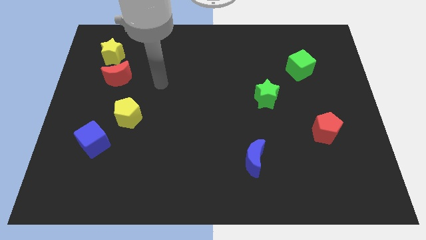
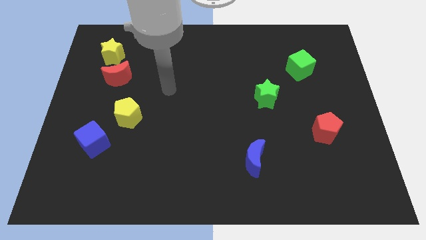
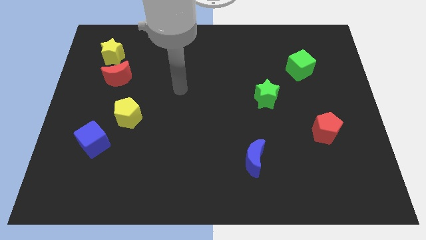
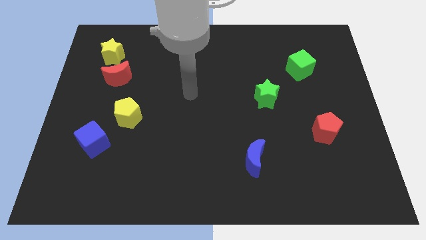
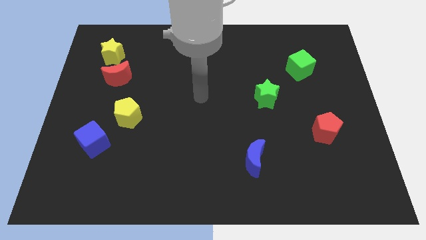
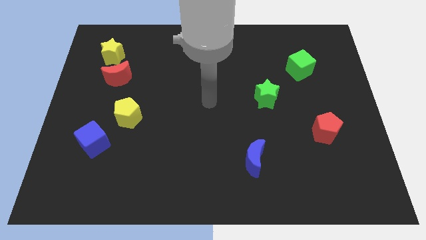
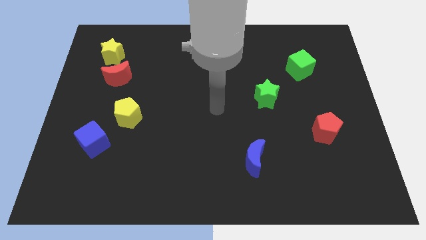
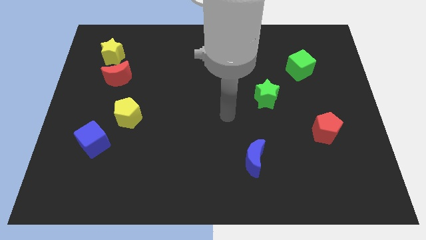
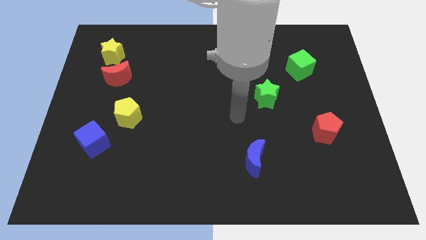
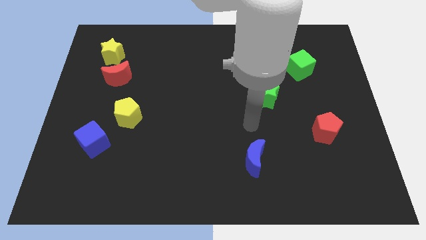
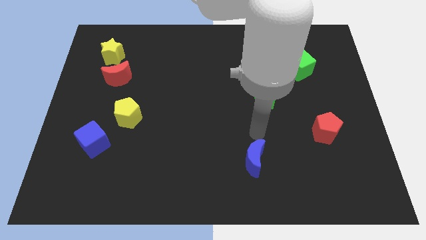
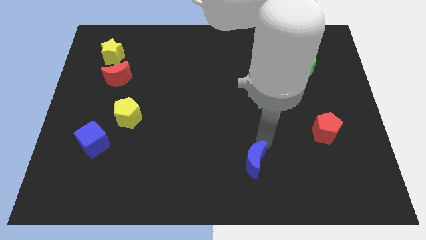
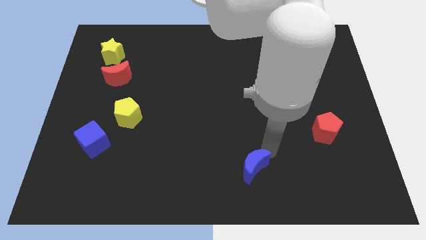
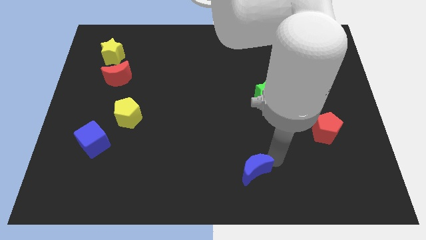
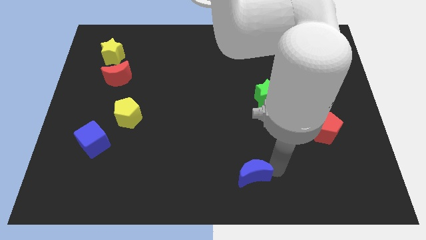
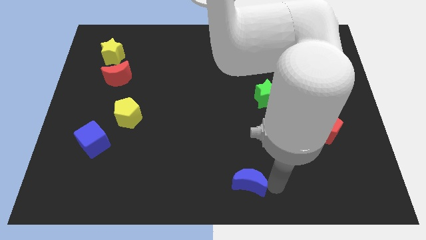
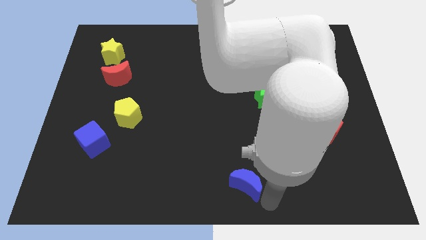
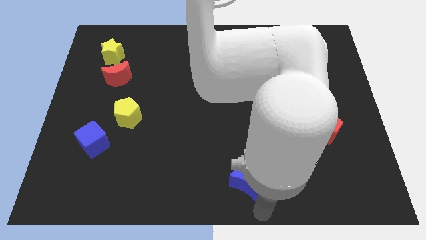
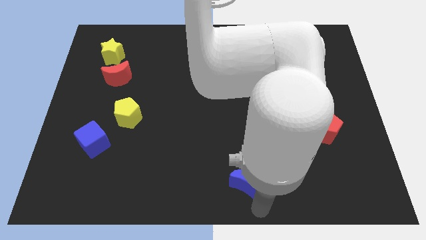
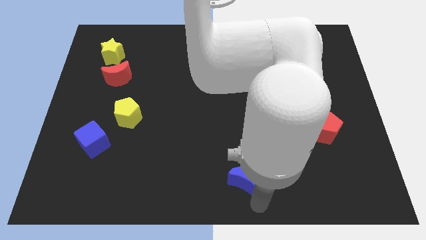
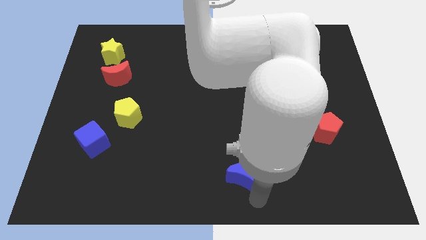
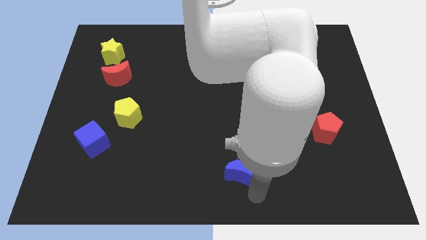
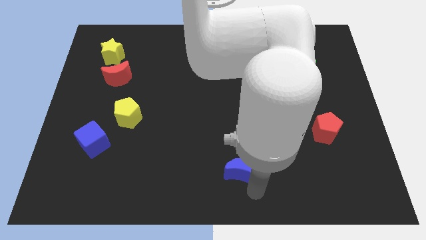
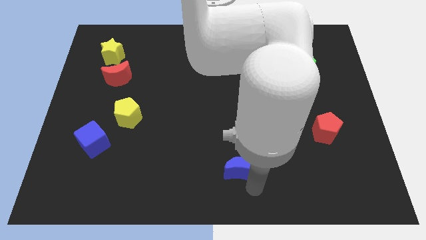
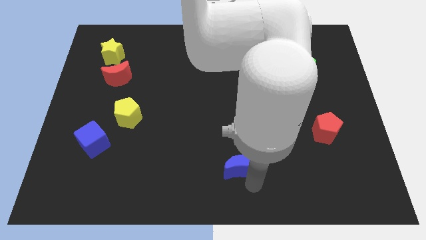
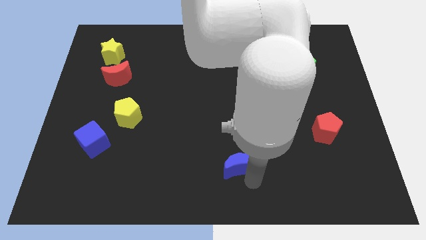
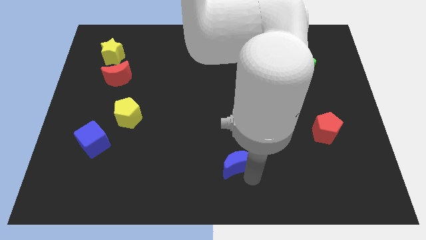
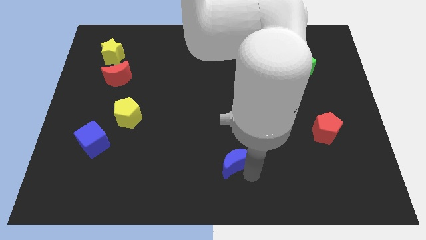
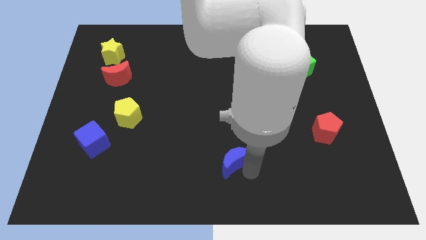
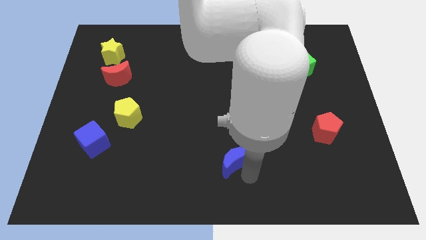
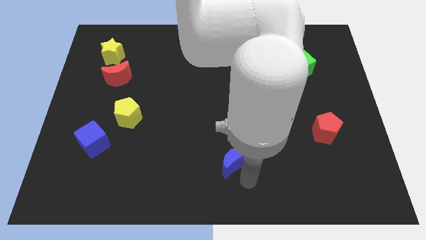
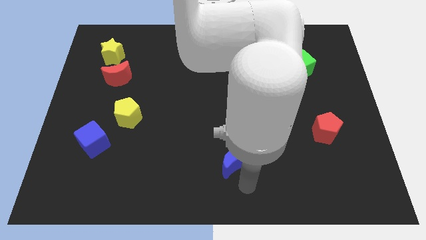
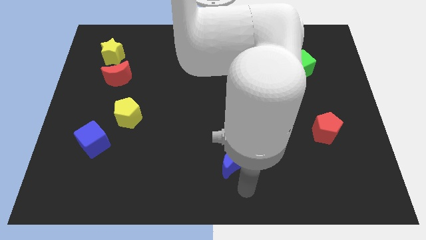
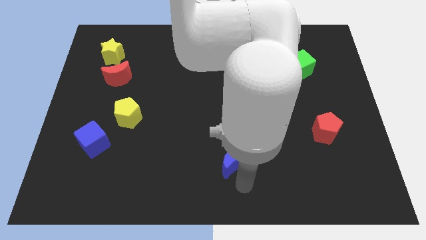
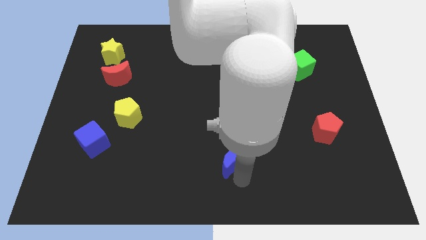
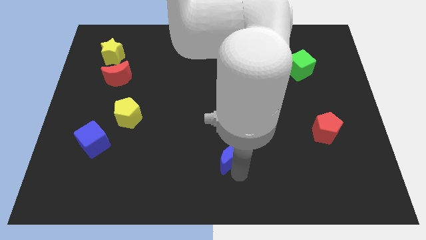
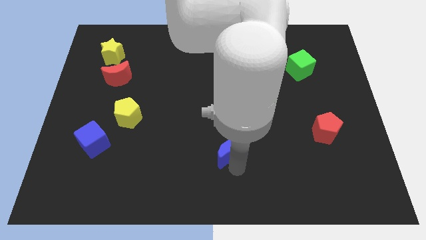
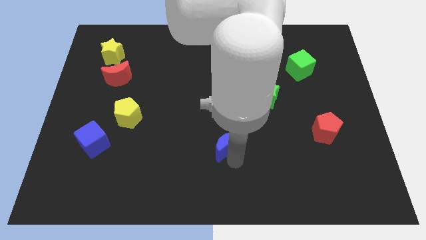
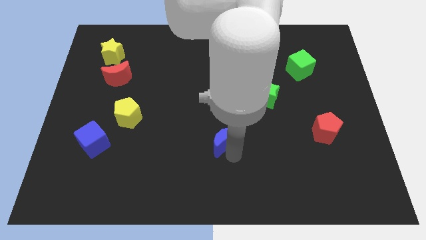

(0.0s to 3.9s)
slightly slide the blue moon up and left diagonally

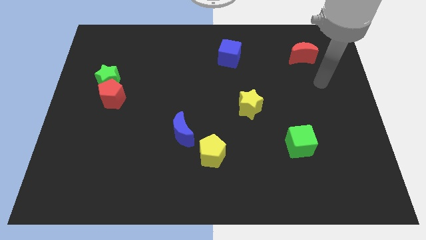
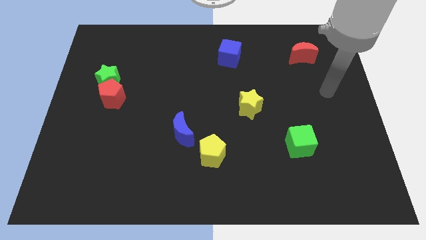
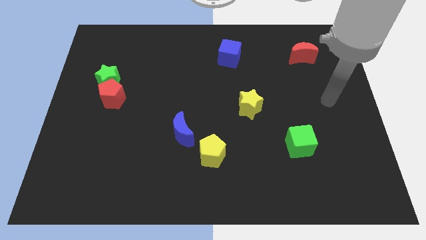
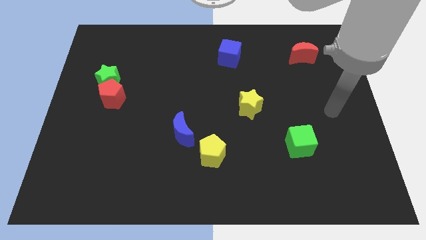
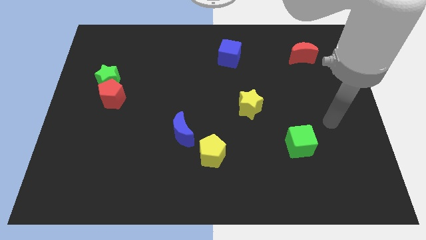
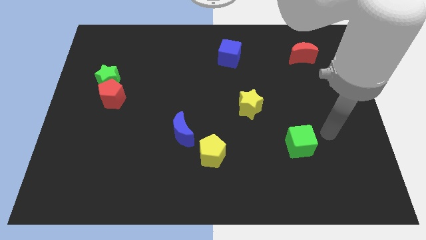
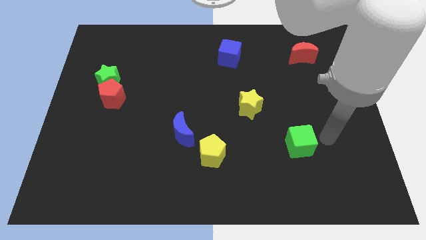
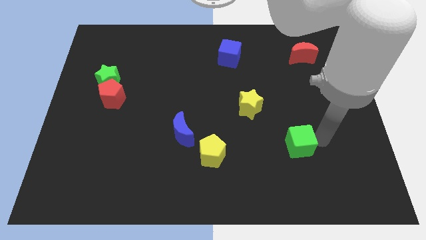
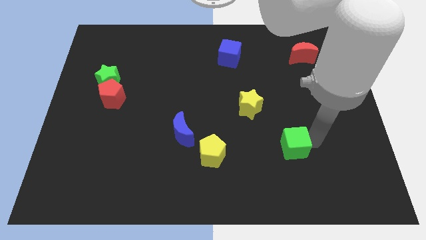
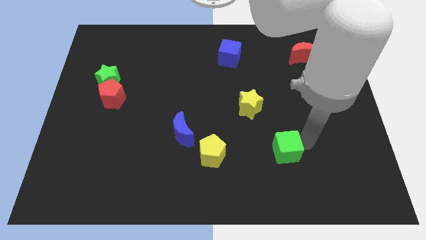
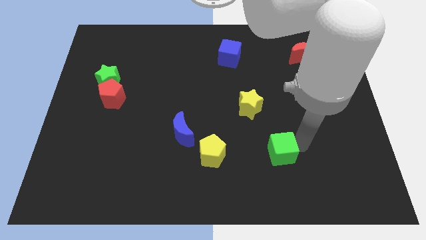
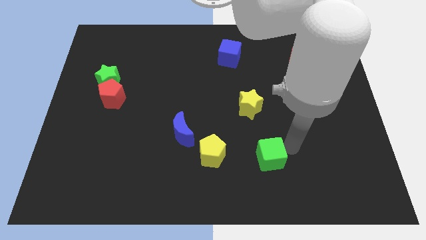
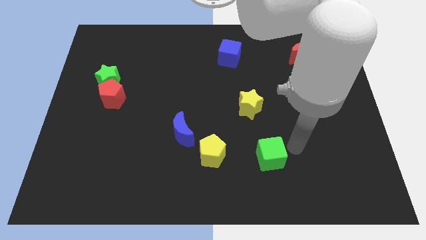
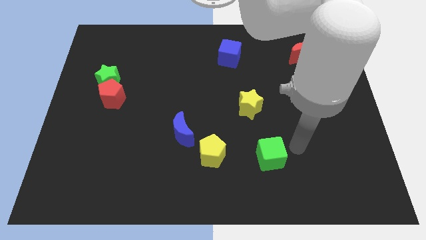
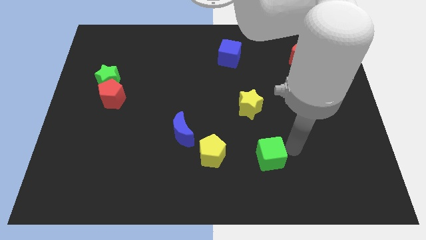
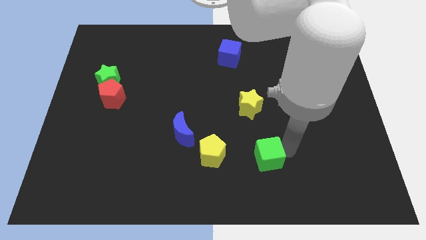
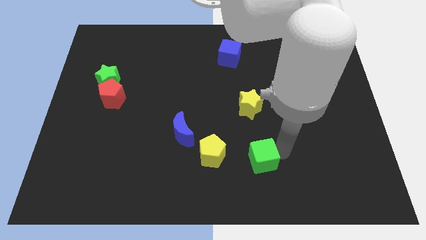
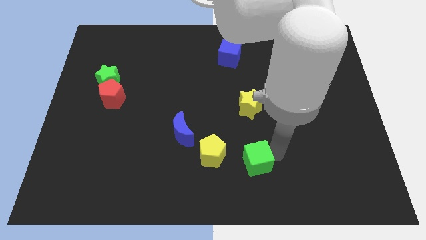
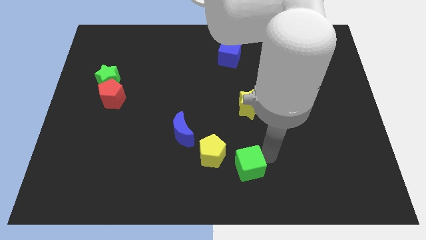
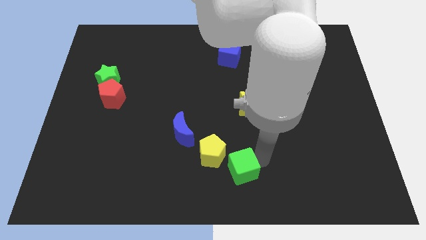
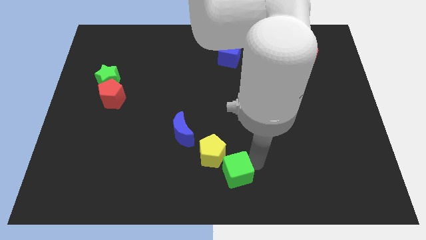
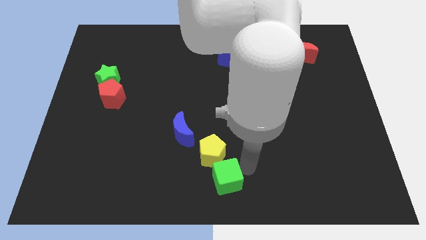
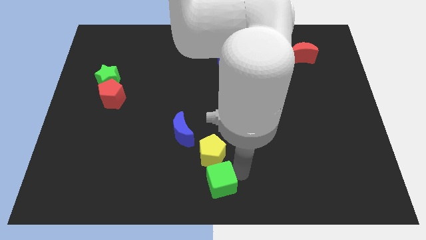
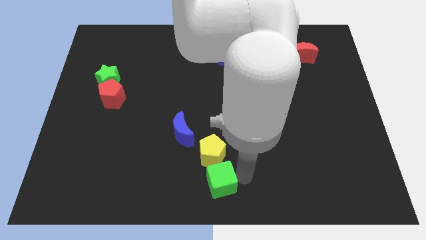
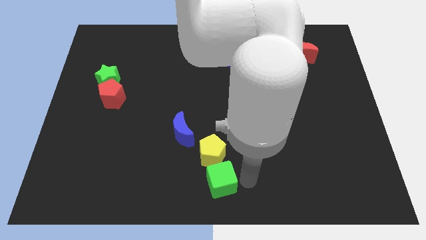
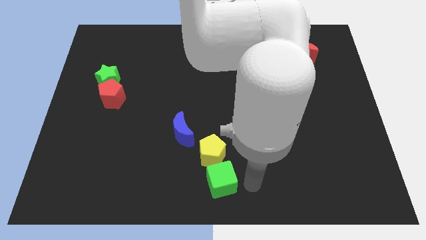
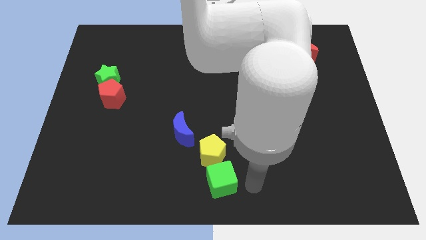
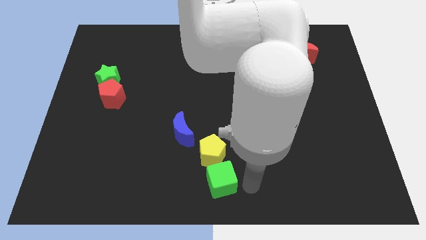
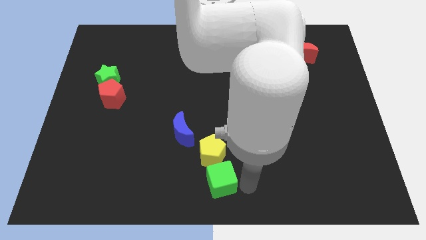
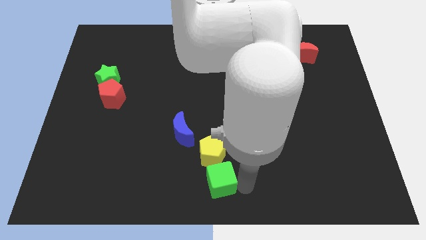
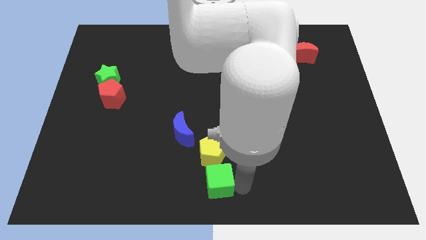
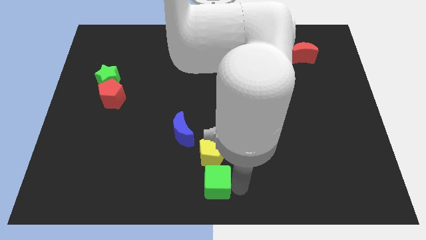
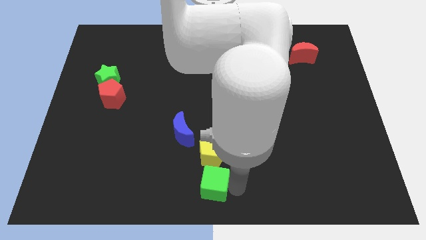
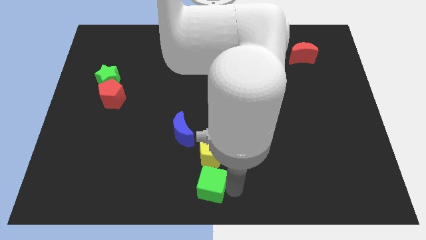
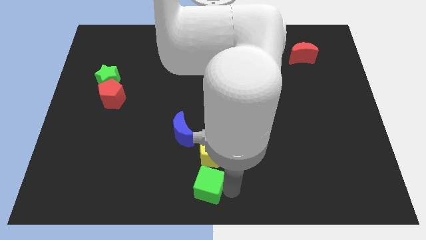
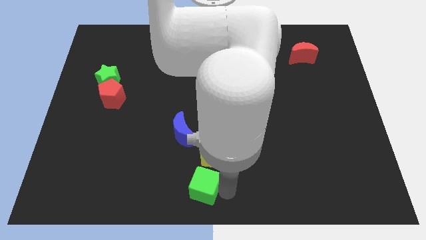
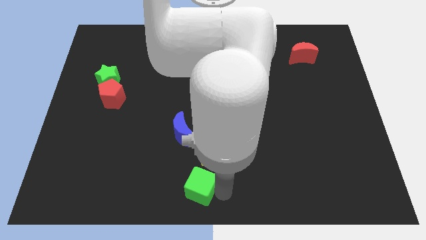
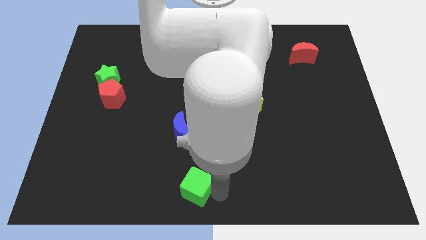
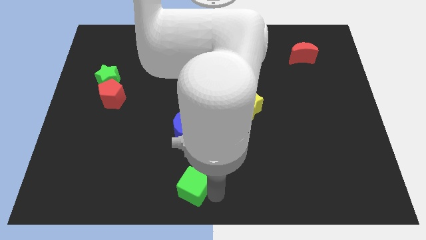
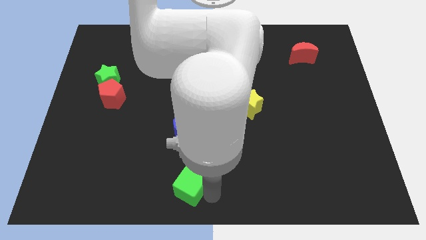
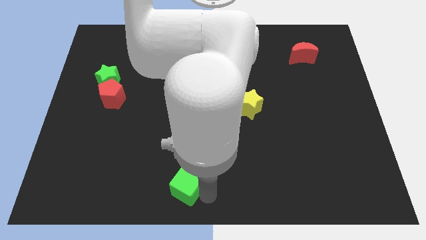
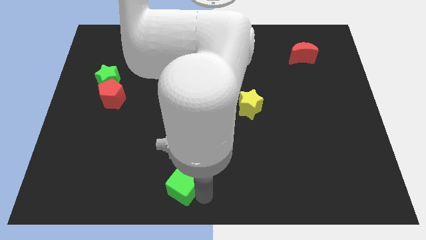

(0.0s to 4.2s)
move the green cube left
